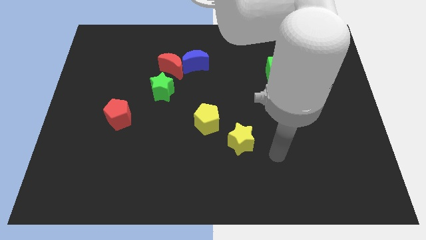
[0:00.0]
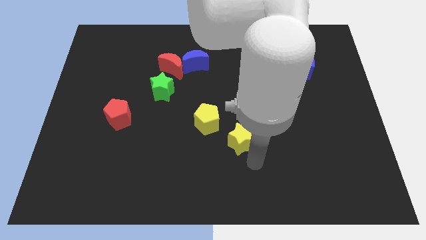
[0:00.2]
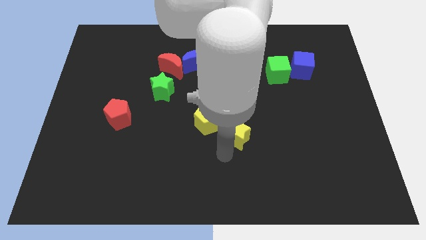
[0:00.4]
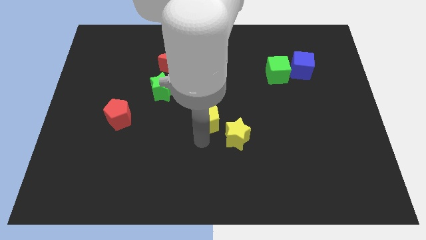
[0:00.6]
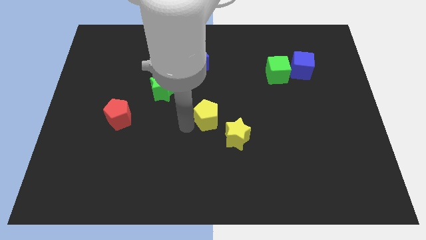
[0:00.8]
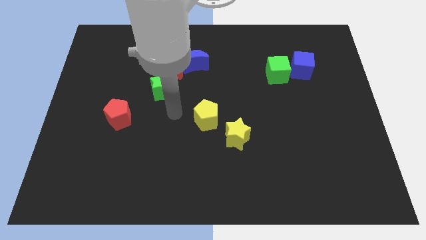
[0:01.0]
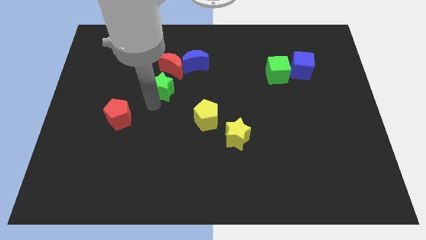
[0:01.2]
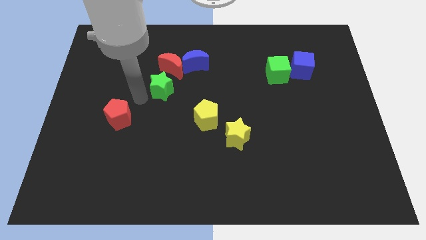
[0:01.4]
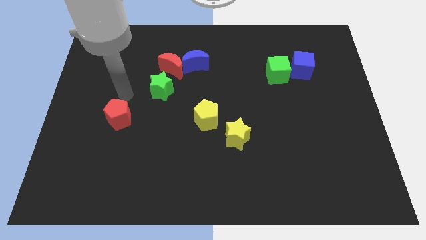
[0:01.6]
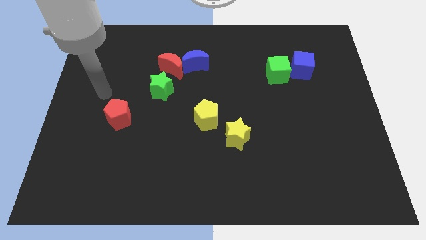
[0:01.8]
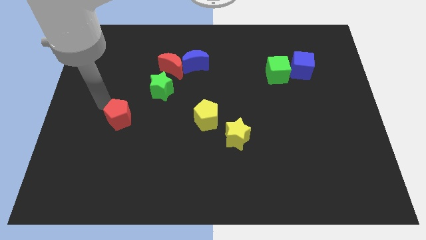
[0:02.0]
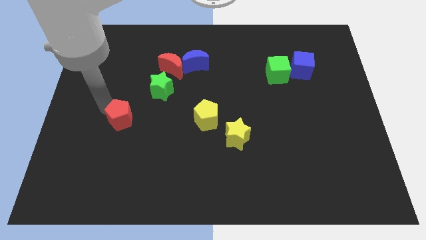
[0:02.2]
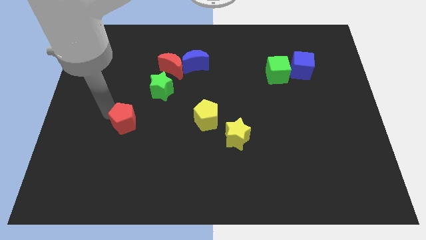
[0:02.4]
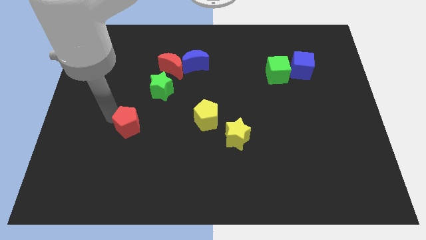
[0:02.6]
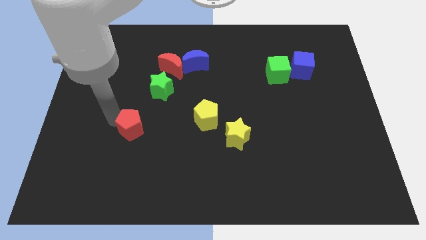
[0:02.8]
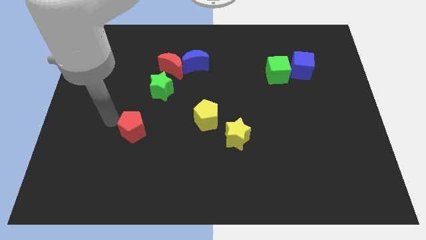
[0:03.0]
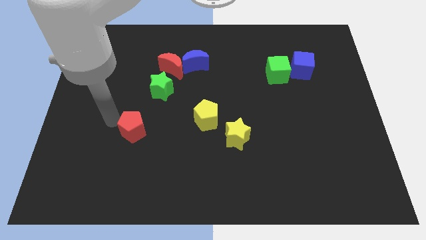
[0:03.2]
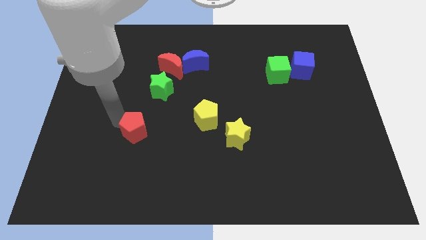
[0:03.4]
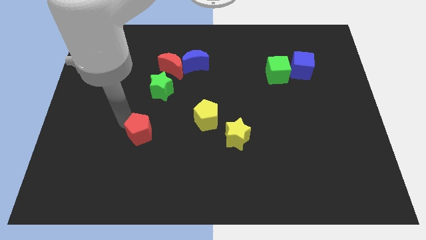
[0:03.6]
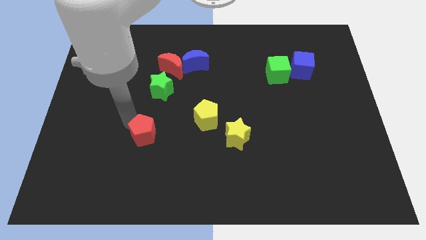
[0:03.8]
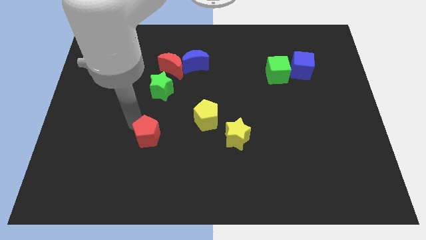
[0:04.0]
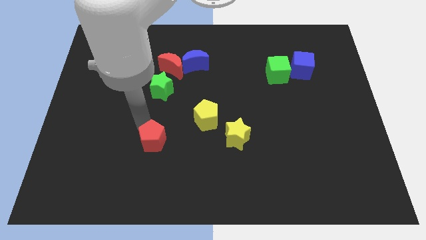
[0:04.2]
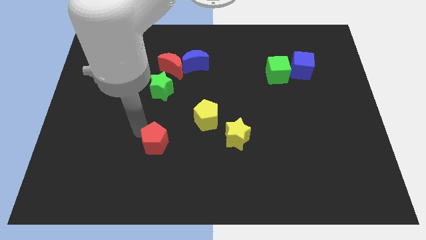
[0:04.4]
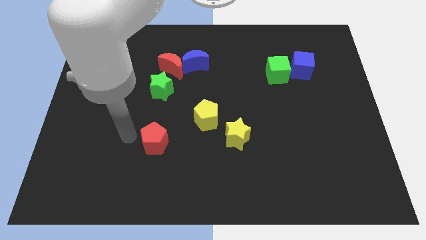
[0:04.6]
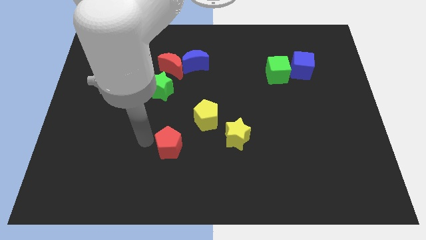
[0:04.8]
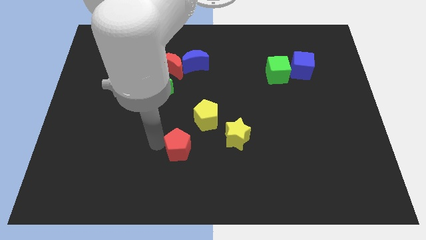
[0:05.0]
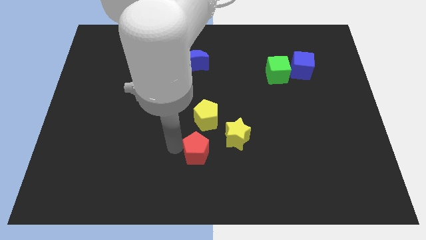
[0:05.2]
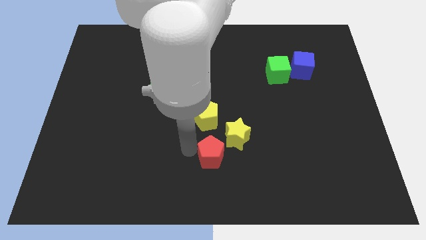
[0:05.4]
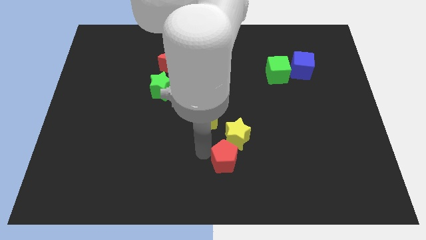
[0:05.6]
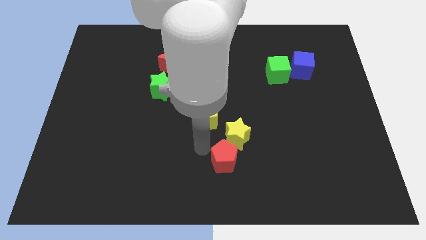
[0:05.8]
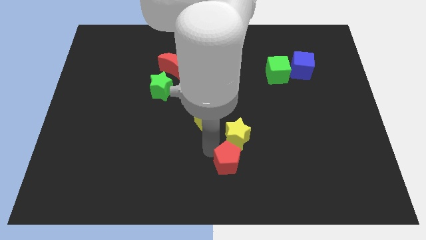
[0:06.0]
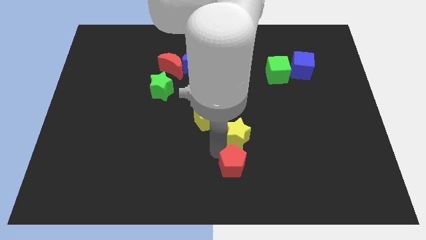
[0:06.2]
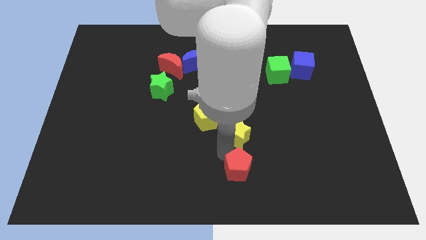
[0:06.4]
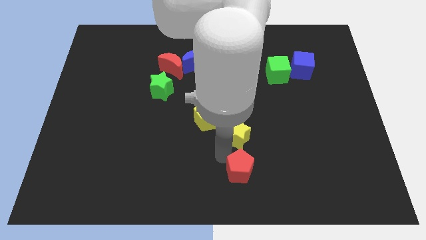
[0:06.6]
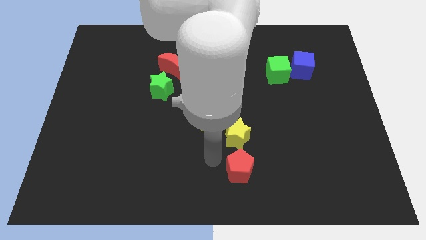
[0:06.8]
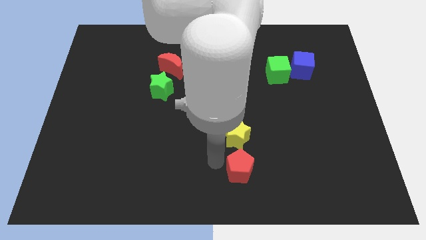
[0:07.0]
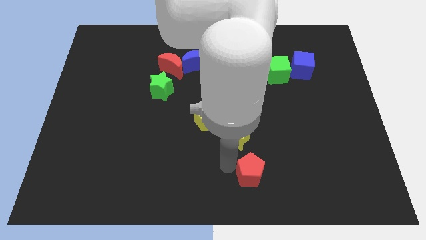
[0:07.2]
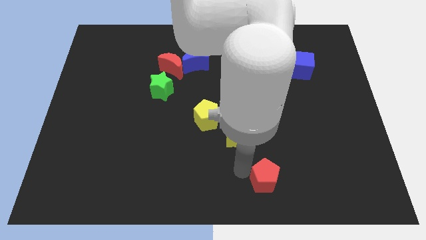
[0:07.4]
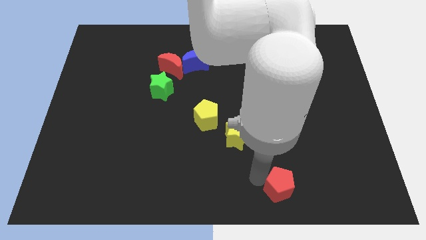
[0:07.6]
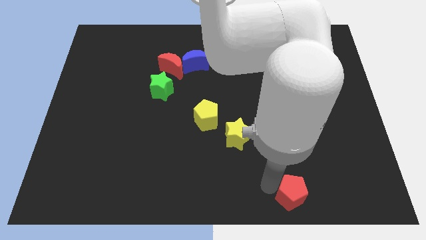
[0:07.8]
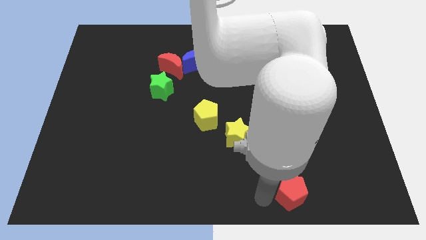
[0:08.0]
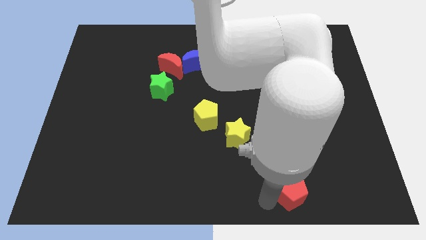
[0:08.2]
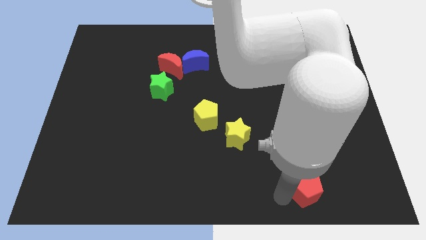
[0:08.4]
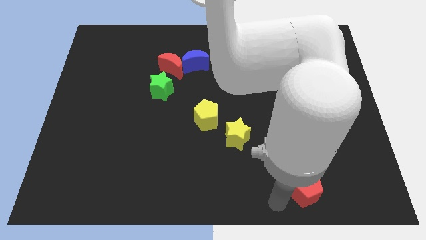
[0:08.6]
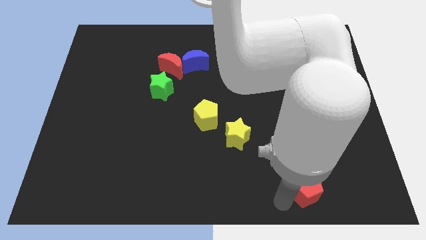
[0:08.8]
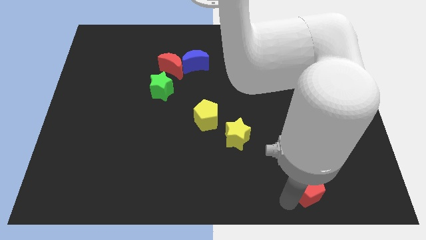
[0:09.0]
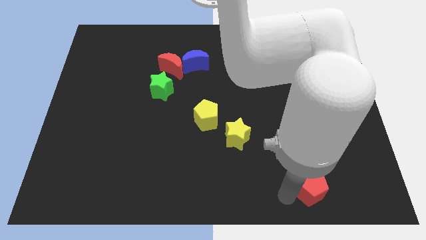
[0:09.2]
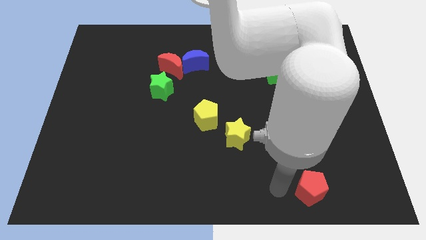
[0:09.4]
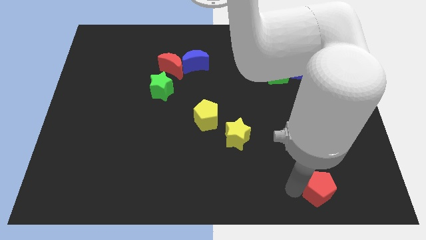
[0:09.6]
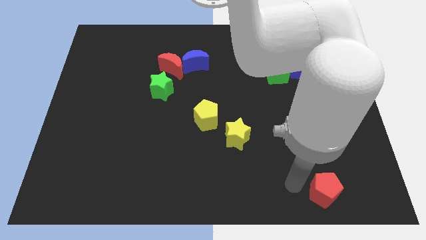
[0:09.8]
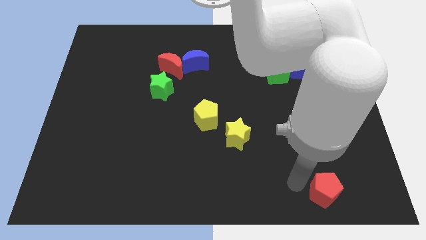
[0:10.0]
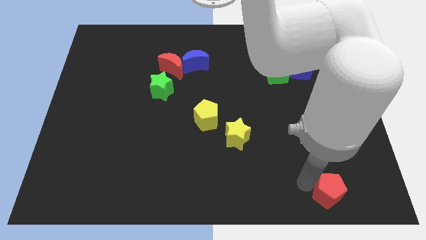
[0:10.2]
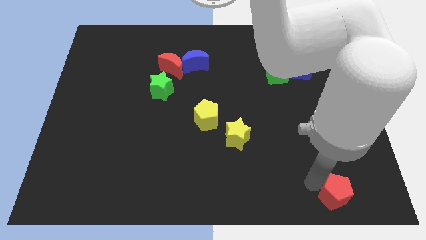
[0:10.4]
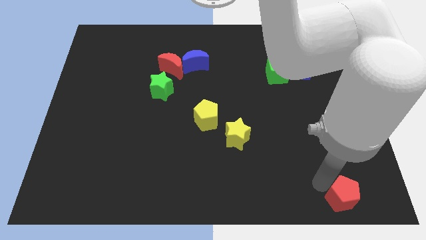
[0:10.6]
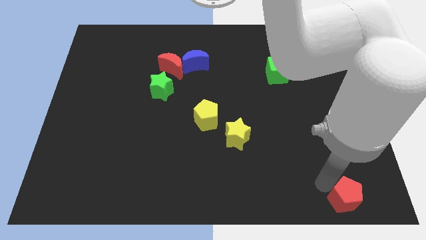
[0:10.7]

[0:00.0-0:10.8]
push the red pentagon to the bottom right
